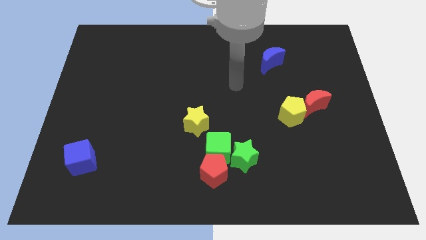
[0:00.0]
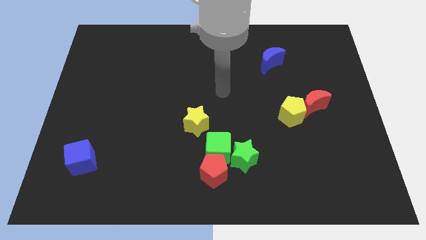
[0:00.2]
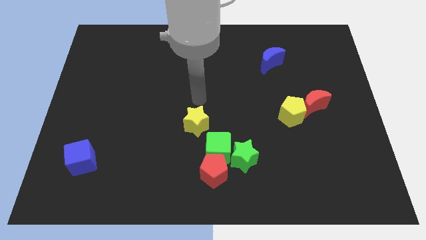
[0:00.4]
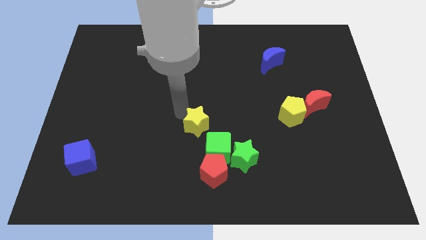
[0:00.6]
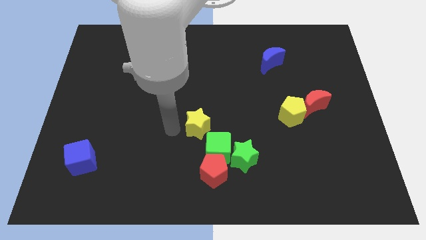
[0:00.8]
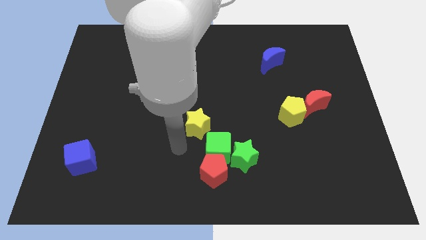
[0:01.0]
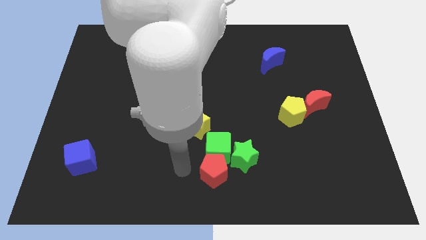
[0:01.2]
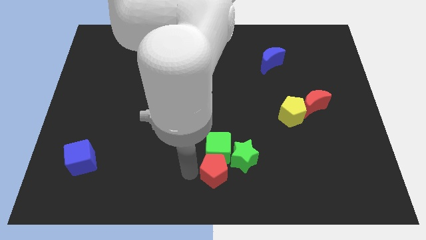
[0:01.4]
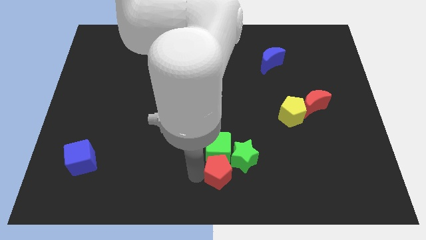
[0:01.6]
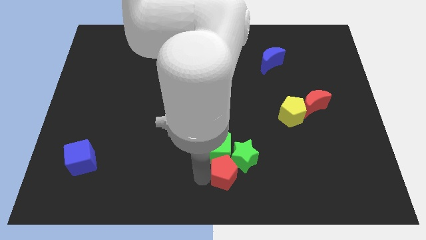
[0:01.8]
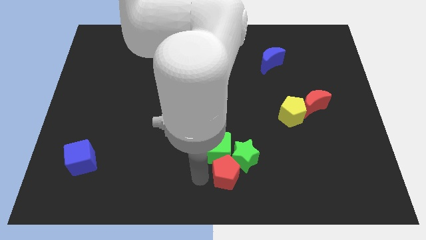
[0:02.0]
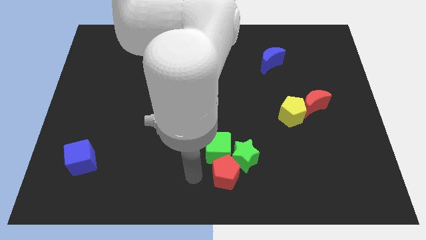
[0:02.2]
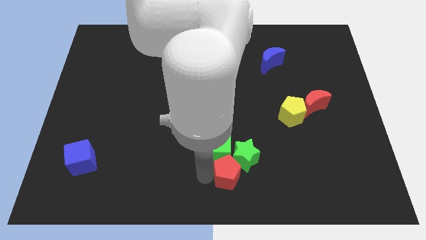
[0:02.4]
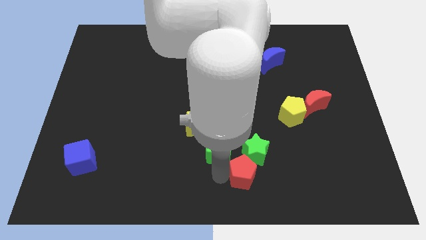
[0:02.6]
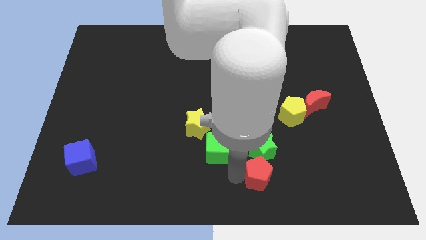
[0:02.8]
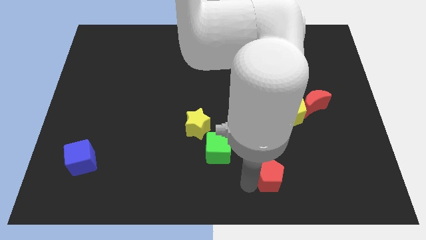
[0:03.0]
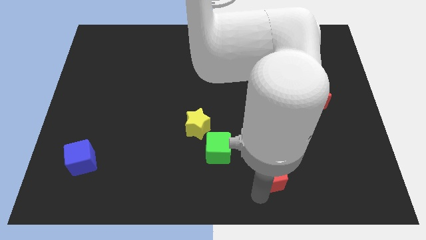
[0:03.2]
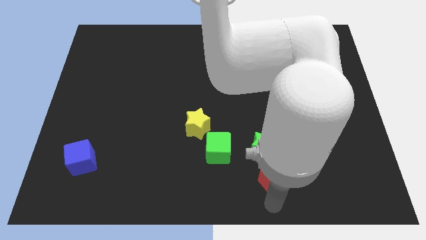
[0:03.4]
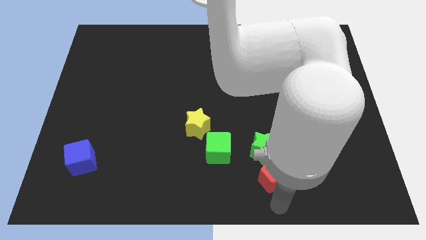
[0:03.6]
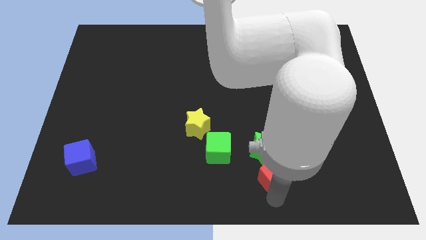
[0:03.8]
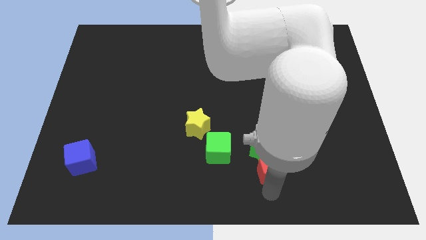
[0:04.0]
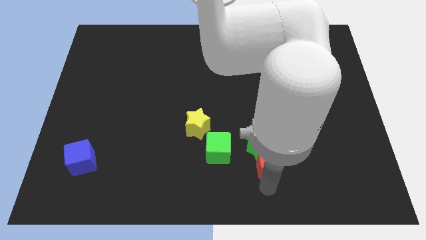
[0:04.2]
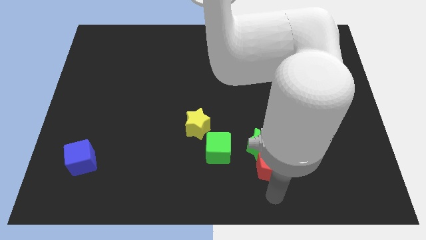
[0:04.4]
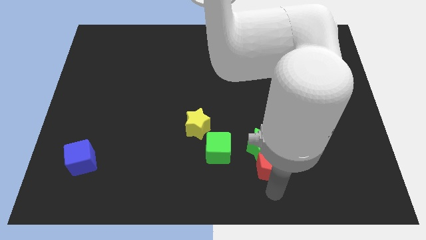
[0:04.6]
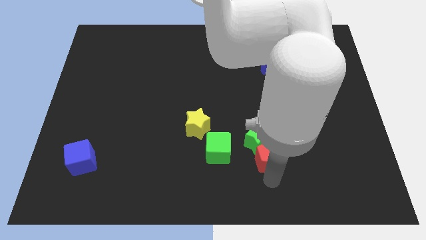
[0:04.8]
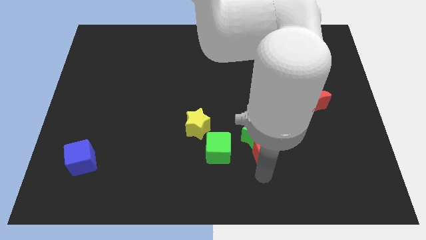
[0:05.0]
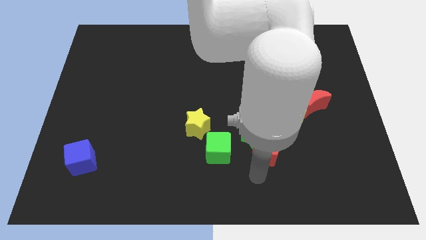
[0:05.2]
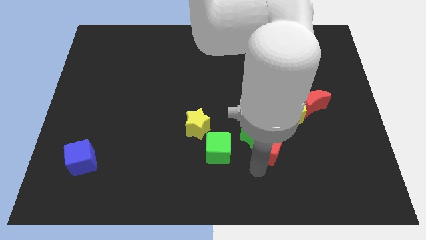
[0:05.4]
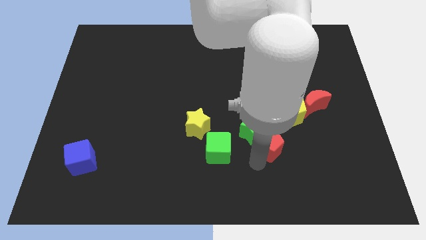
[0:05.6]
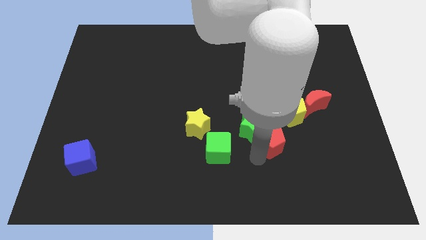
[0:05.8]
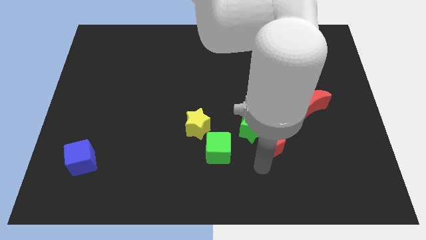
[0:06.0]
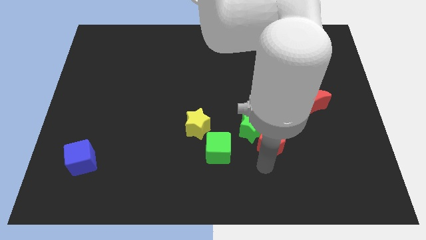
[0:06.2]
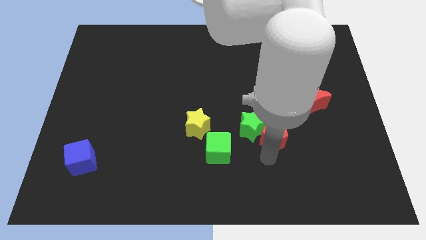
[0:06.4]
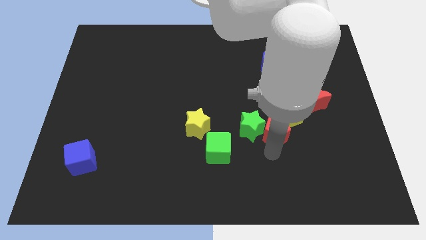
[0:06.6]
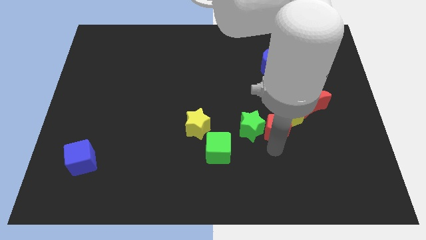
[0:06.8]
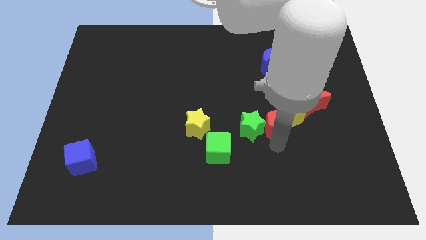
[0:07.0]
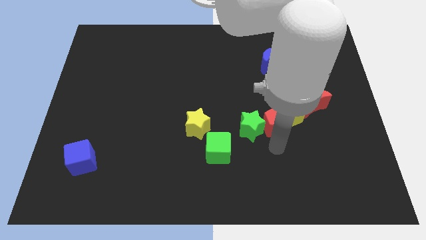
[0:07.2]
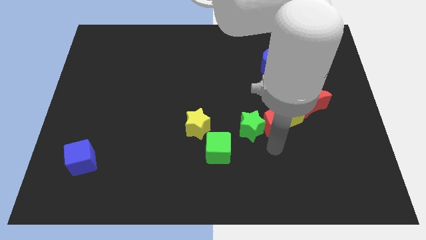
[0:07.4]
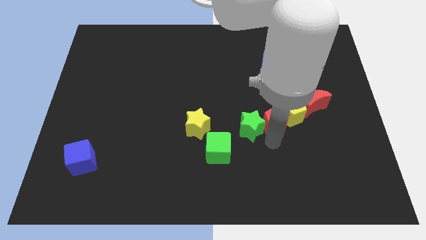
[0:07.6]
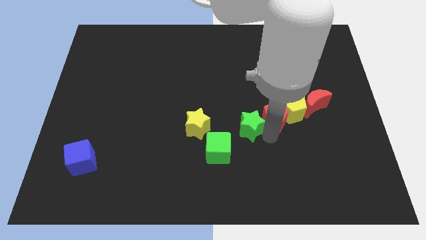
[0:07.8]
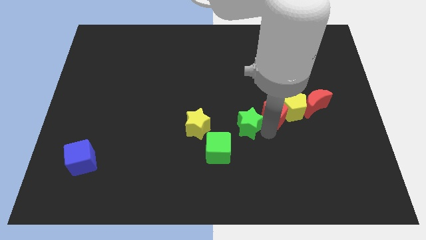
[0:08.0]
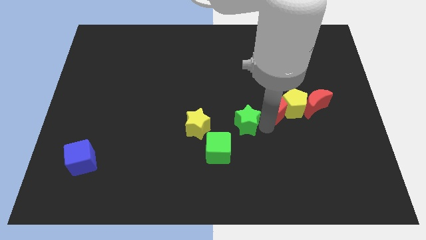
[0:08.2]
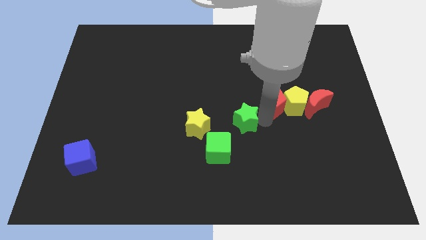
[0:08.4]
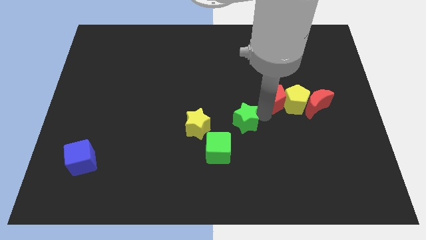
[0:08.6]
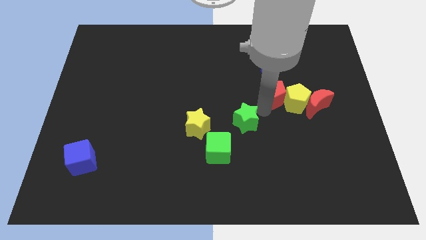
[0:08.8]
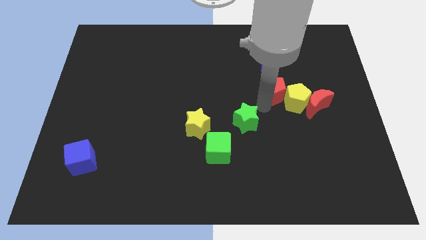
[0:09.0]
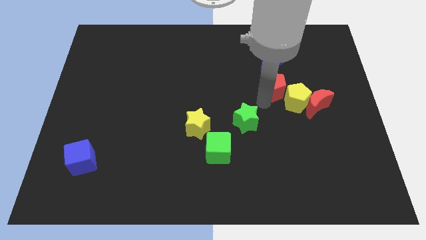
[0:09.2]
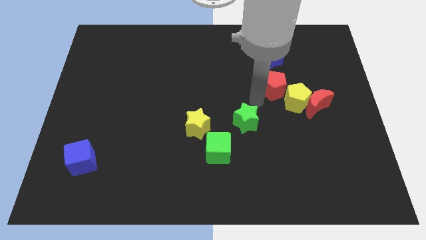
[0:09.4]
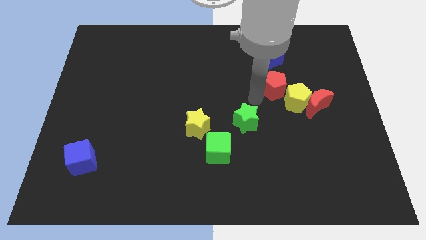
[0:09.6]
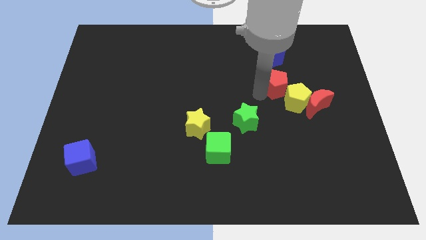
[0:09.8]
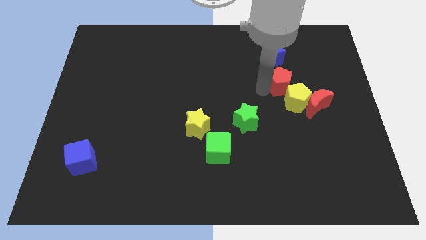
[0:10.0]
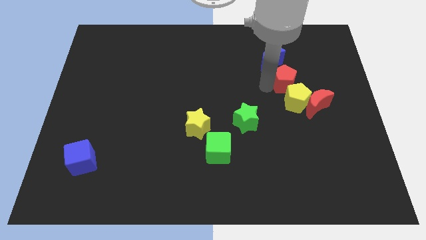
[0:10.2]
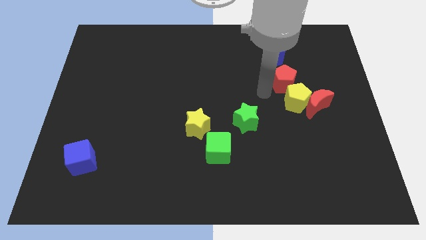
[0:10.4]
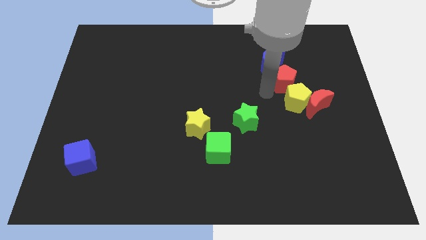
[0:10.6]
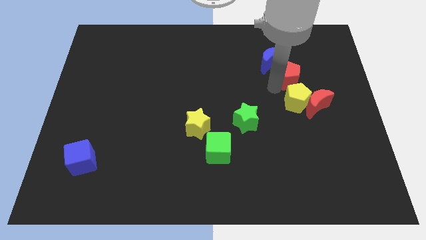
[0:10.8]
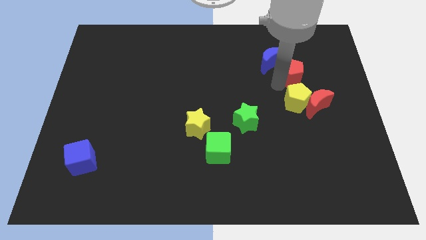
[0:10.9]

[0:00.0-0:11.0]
put the red pentagon to the right side of the blue moon

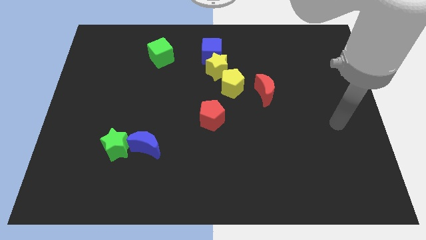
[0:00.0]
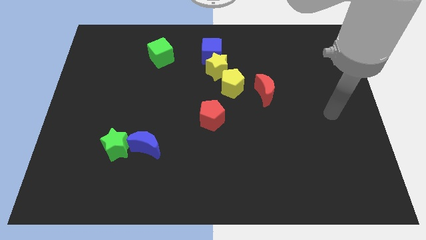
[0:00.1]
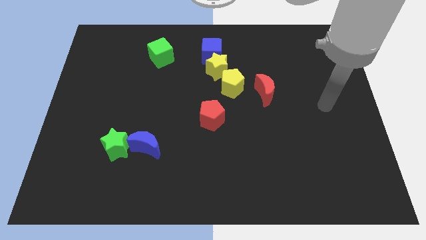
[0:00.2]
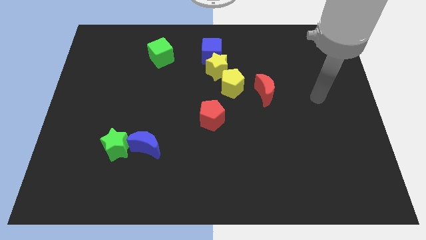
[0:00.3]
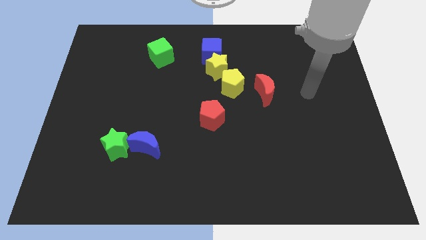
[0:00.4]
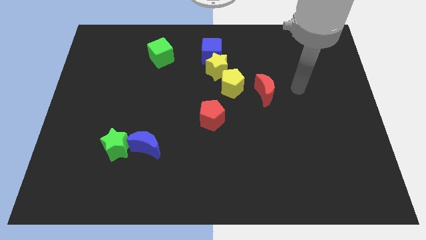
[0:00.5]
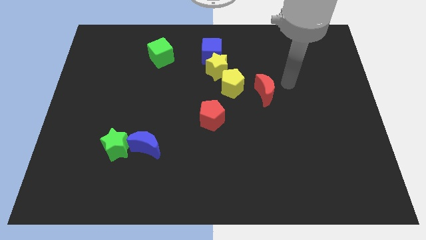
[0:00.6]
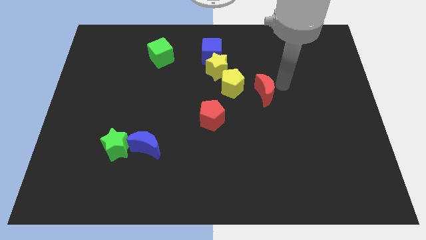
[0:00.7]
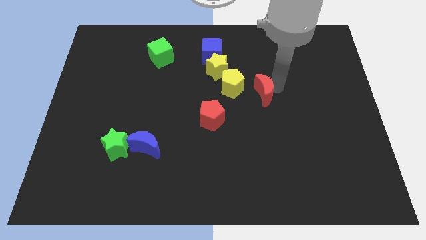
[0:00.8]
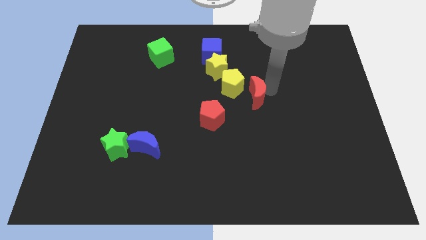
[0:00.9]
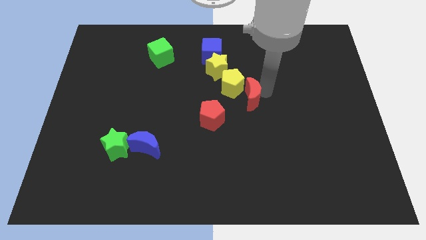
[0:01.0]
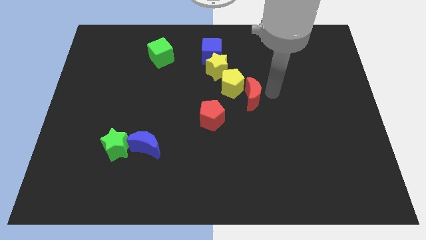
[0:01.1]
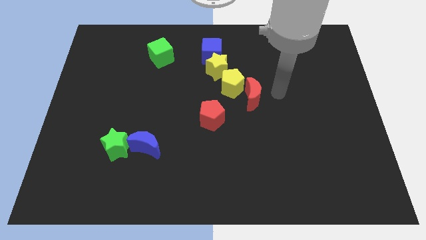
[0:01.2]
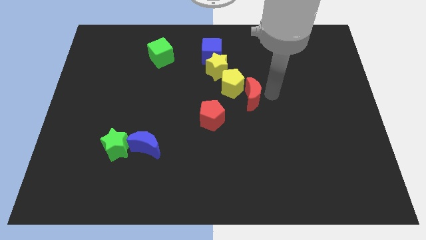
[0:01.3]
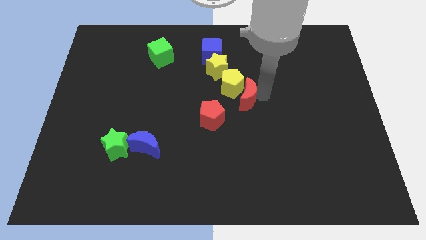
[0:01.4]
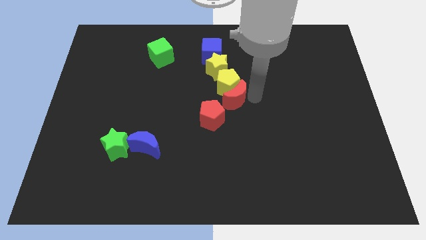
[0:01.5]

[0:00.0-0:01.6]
push the red moon to the bottom left of the yellow pentagon
